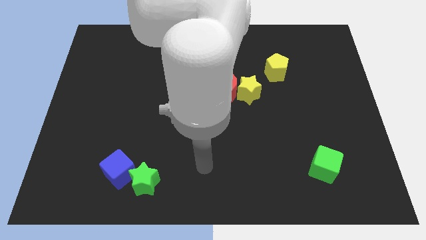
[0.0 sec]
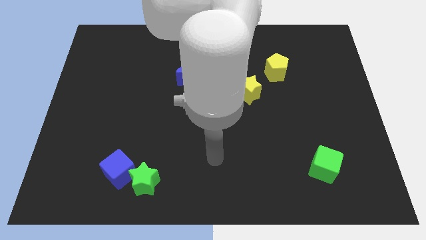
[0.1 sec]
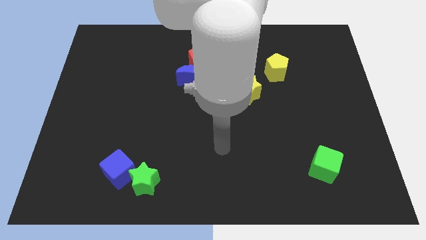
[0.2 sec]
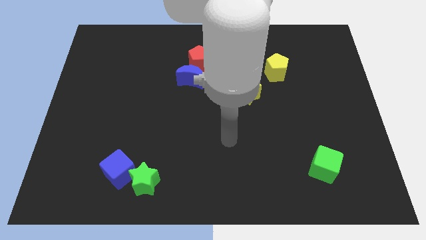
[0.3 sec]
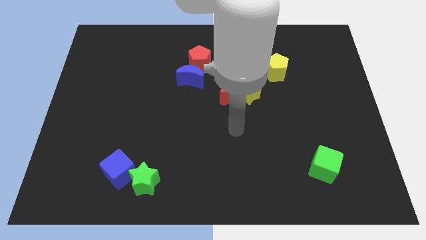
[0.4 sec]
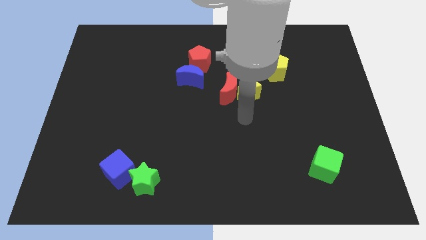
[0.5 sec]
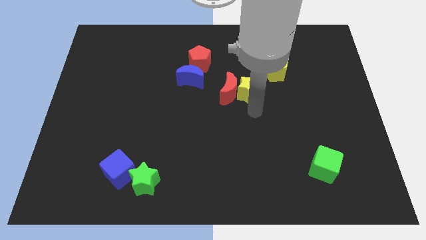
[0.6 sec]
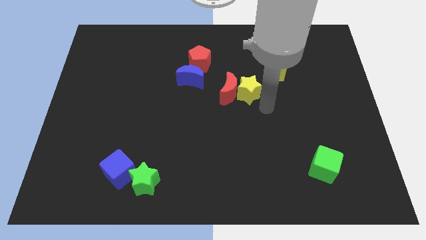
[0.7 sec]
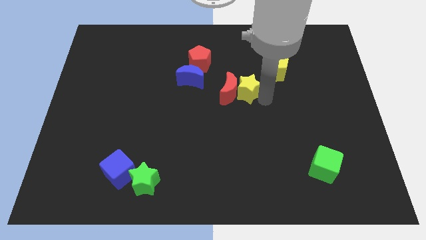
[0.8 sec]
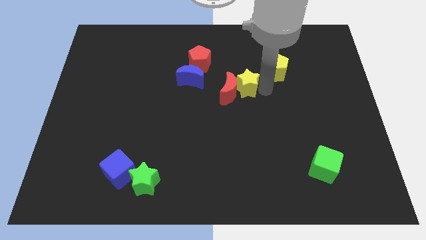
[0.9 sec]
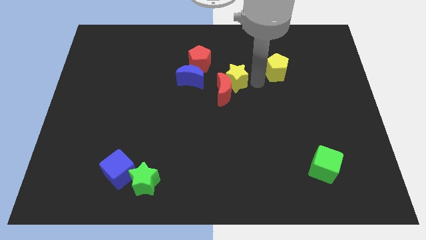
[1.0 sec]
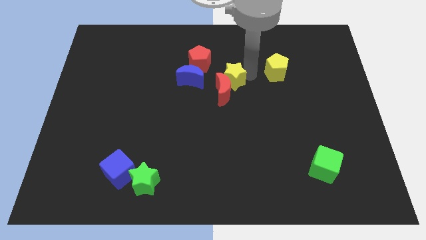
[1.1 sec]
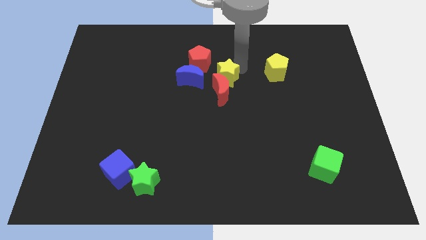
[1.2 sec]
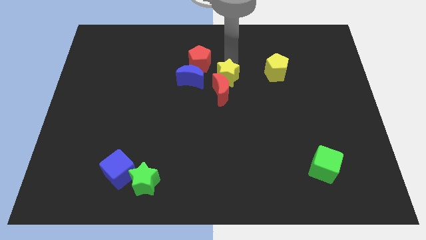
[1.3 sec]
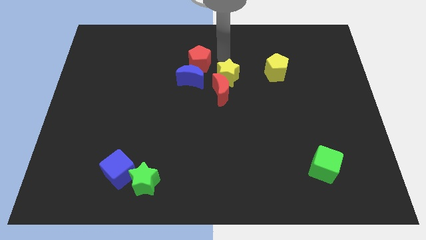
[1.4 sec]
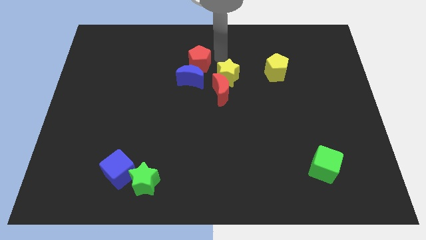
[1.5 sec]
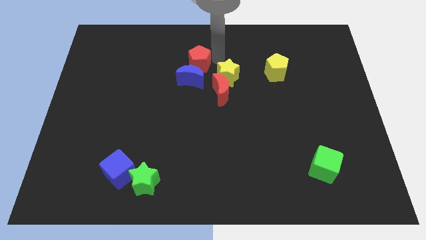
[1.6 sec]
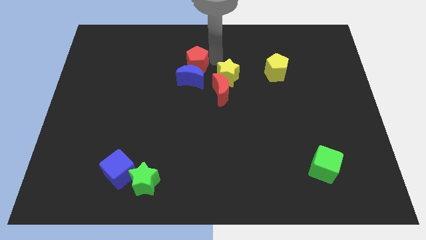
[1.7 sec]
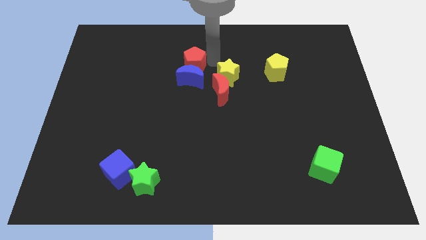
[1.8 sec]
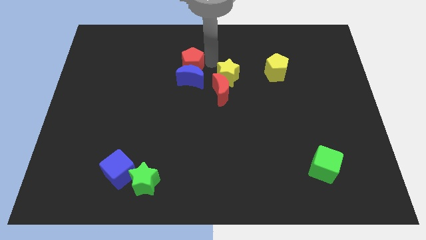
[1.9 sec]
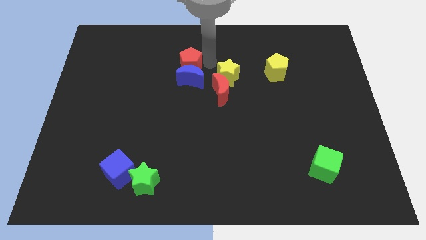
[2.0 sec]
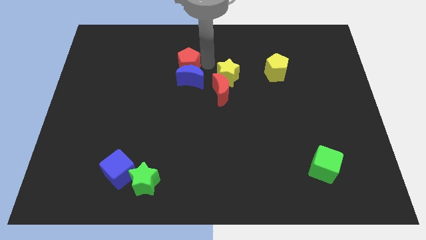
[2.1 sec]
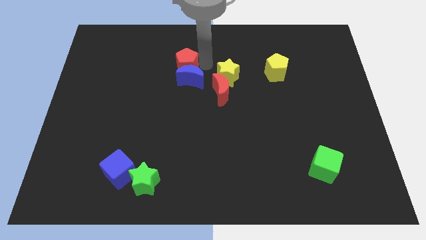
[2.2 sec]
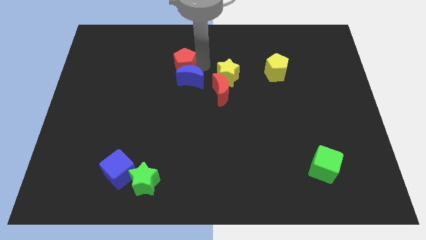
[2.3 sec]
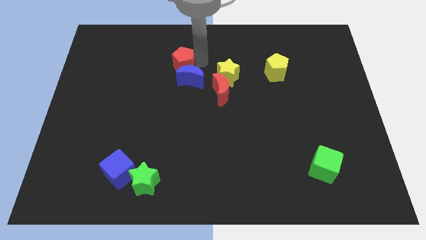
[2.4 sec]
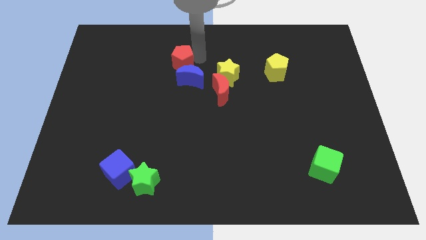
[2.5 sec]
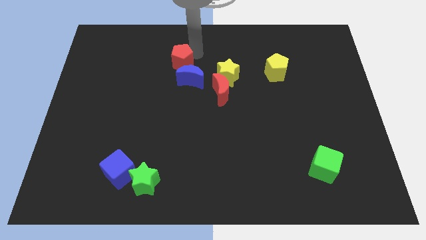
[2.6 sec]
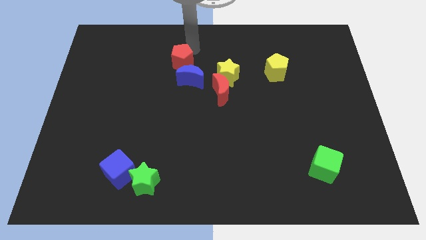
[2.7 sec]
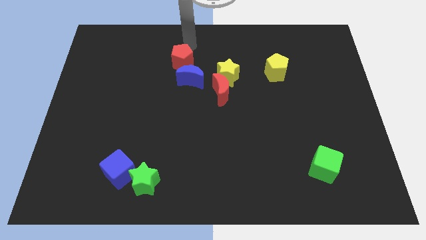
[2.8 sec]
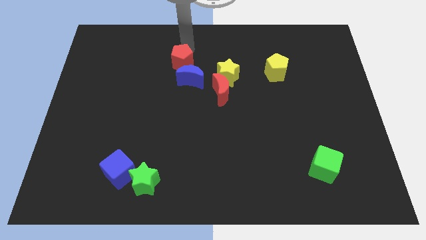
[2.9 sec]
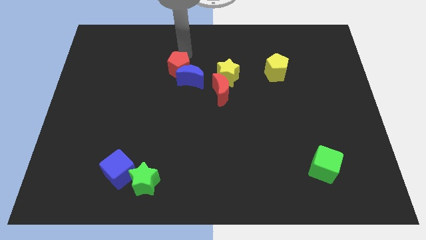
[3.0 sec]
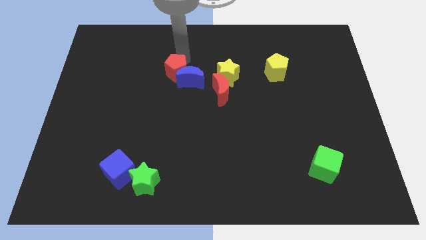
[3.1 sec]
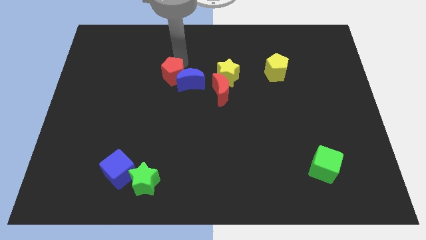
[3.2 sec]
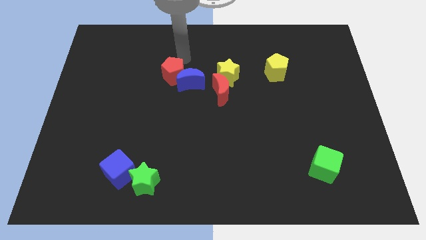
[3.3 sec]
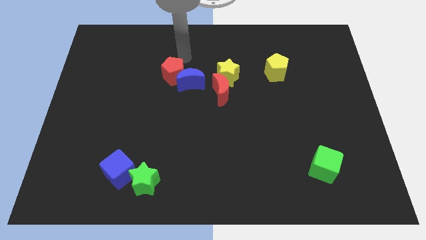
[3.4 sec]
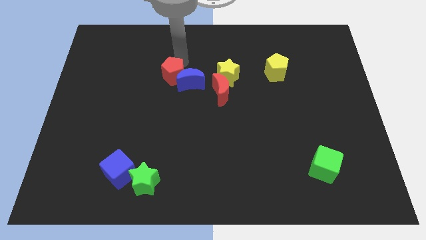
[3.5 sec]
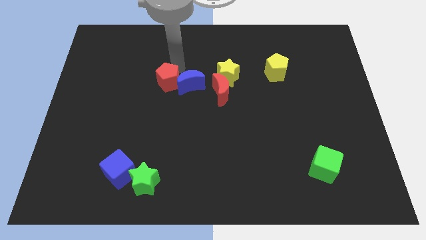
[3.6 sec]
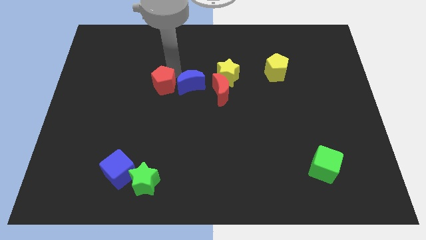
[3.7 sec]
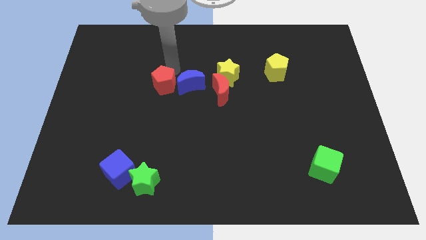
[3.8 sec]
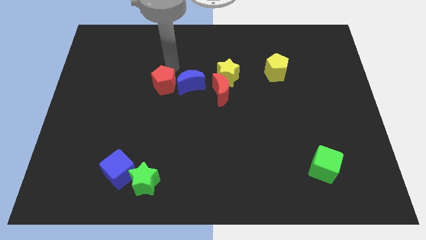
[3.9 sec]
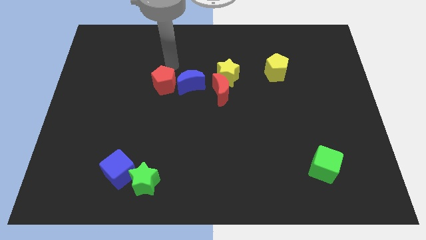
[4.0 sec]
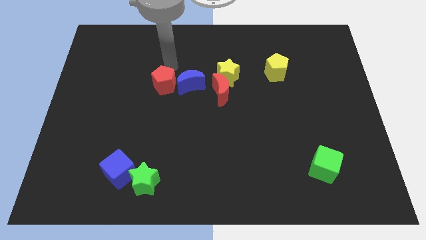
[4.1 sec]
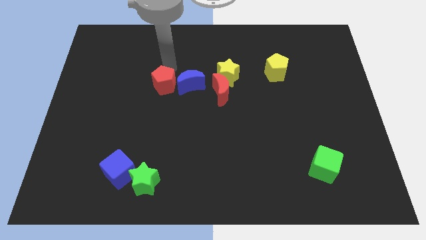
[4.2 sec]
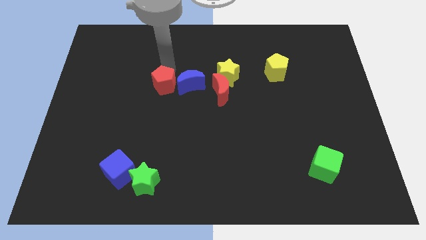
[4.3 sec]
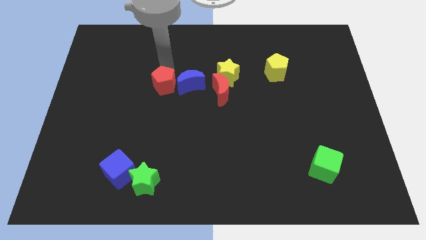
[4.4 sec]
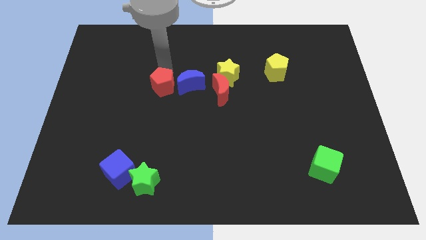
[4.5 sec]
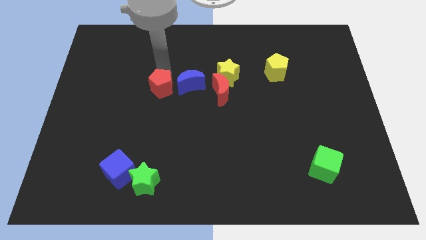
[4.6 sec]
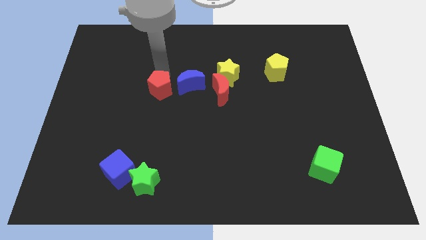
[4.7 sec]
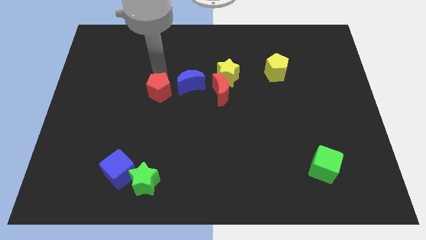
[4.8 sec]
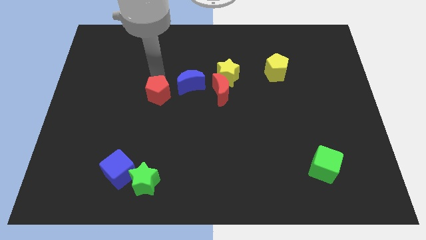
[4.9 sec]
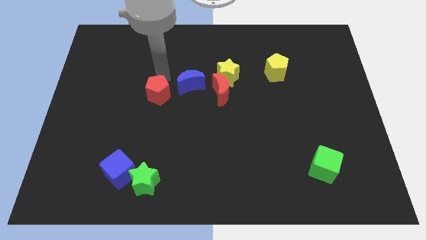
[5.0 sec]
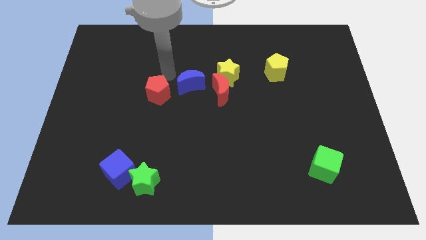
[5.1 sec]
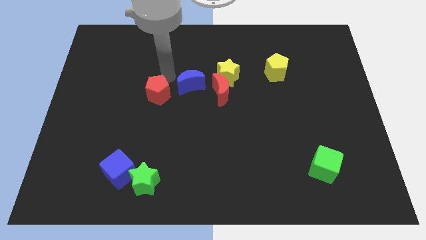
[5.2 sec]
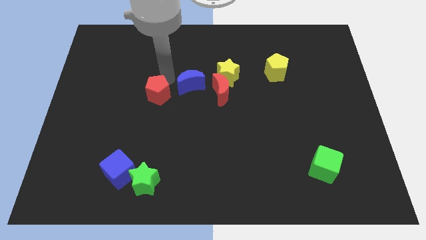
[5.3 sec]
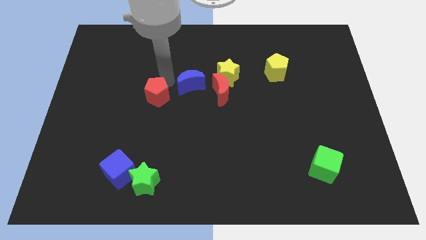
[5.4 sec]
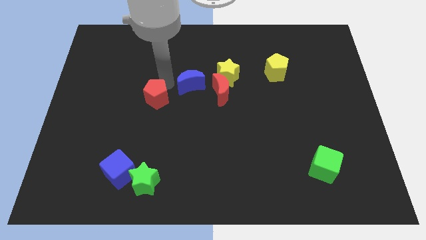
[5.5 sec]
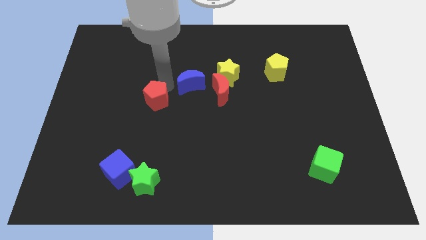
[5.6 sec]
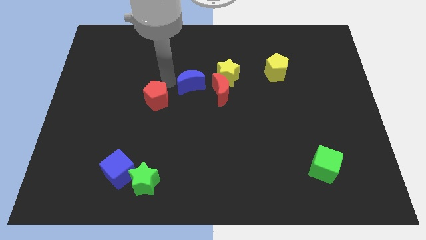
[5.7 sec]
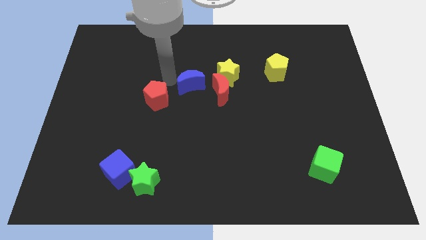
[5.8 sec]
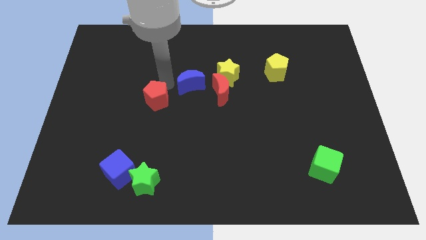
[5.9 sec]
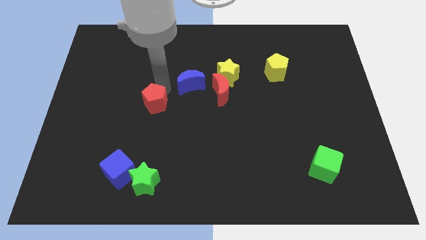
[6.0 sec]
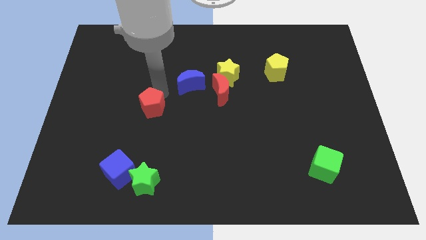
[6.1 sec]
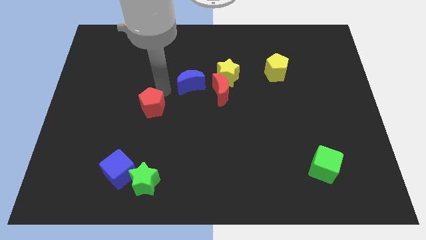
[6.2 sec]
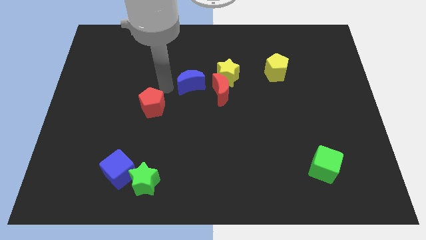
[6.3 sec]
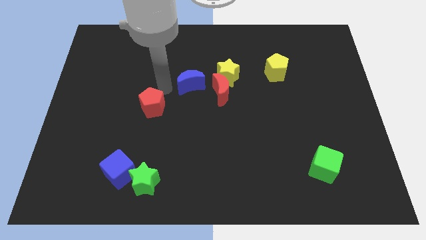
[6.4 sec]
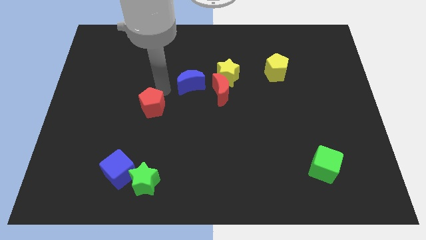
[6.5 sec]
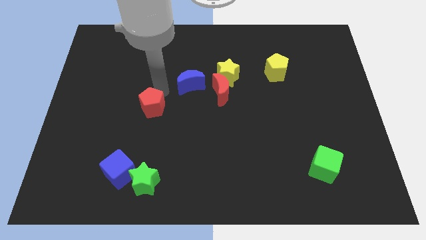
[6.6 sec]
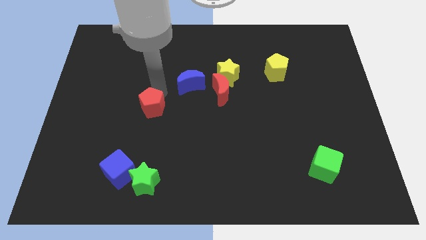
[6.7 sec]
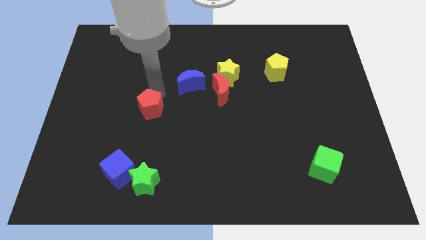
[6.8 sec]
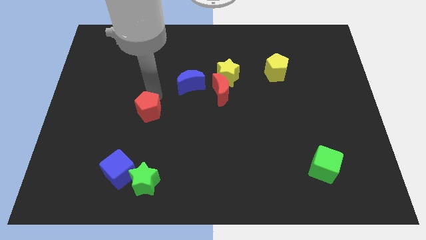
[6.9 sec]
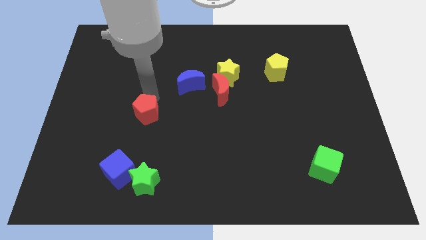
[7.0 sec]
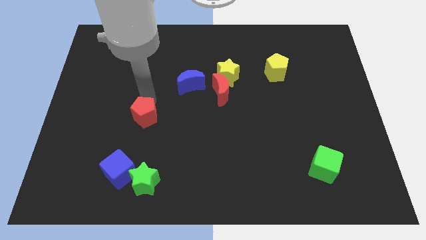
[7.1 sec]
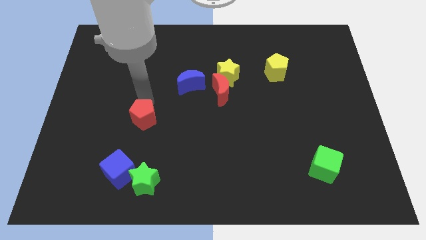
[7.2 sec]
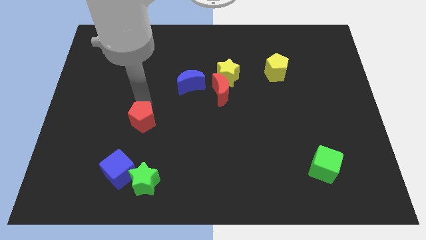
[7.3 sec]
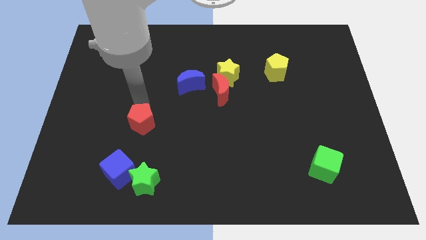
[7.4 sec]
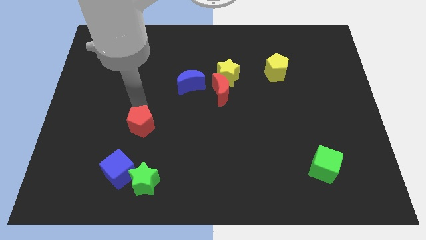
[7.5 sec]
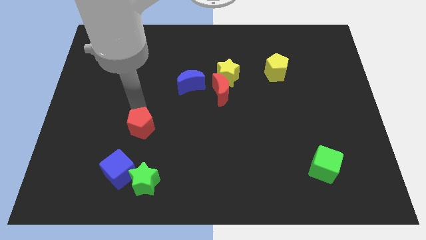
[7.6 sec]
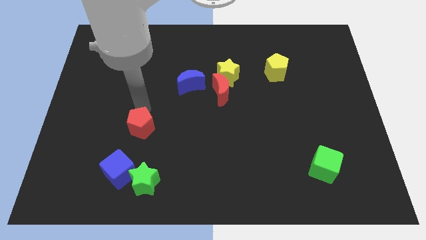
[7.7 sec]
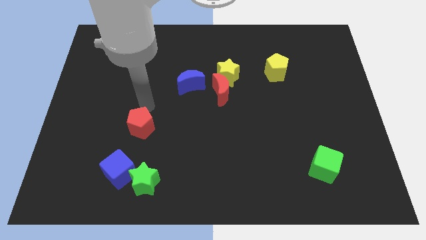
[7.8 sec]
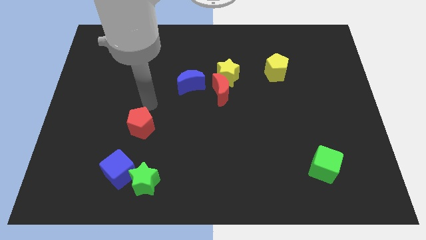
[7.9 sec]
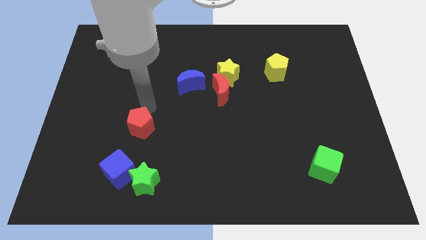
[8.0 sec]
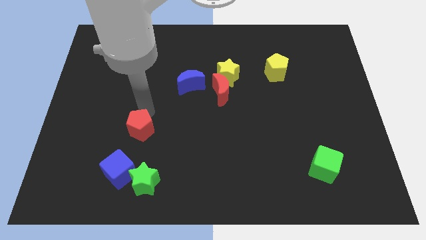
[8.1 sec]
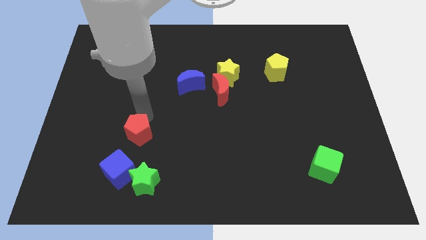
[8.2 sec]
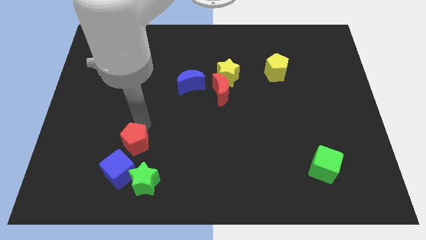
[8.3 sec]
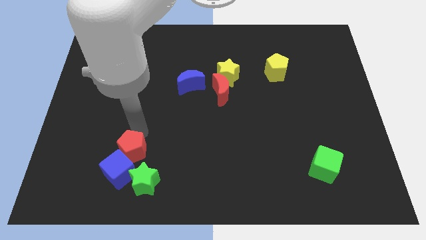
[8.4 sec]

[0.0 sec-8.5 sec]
slide the red pentagon next to the blue cube

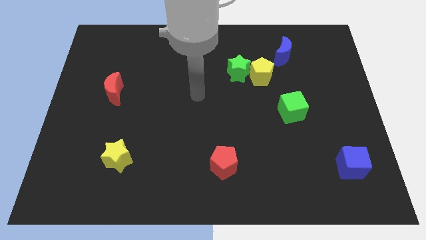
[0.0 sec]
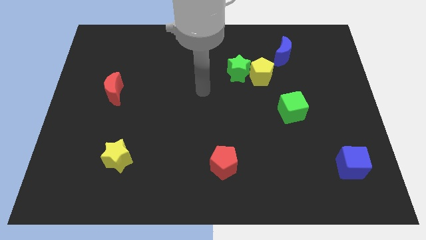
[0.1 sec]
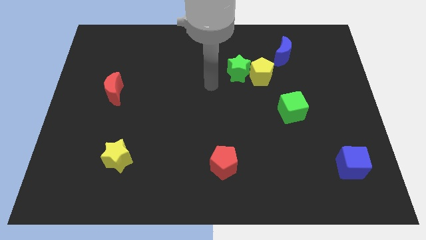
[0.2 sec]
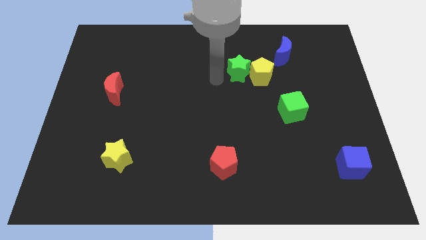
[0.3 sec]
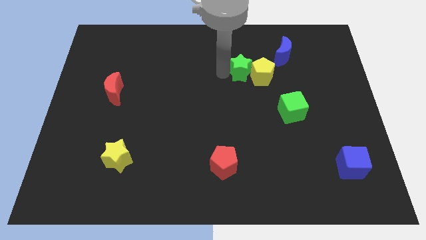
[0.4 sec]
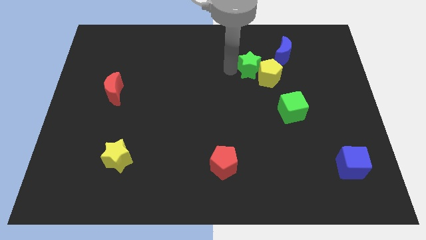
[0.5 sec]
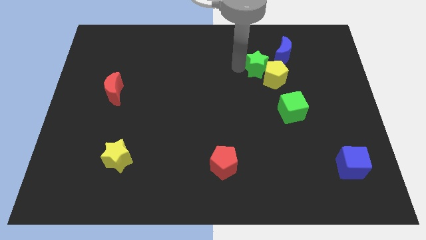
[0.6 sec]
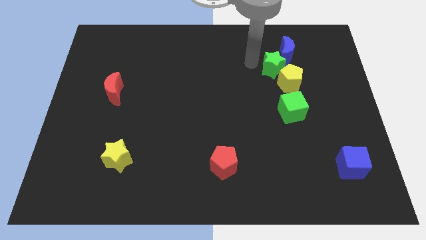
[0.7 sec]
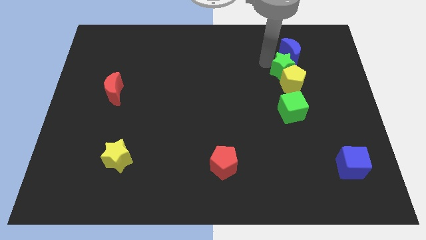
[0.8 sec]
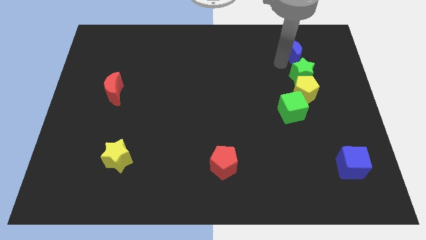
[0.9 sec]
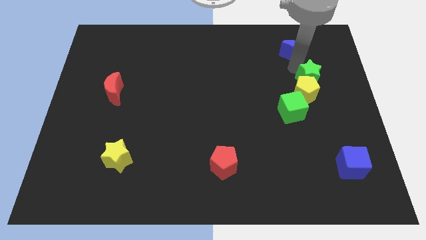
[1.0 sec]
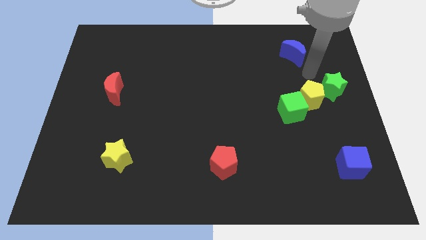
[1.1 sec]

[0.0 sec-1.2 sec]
push the yellow pentagon next to the green cube
